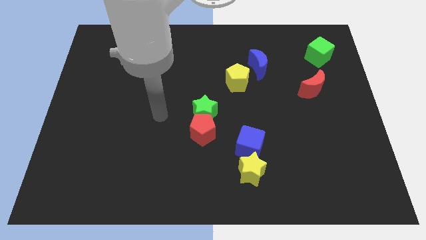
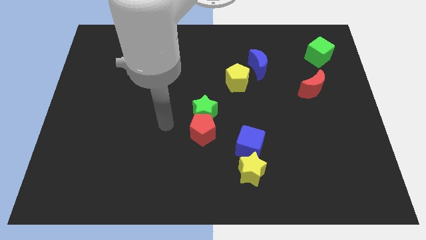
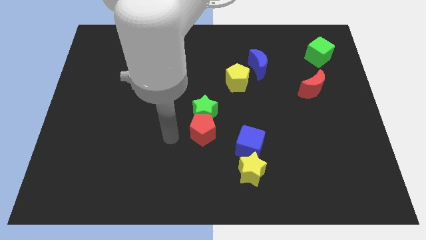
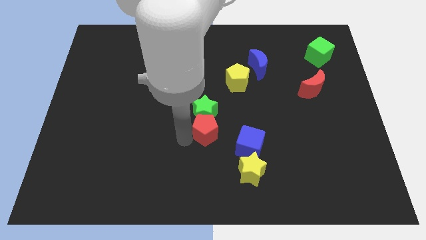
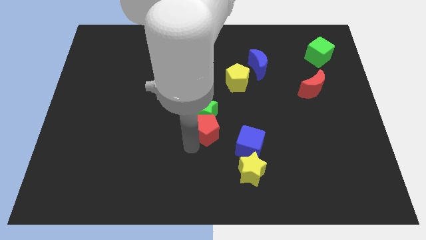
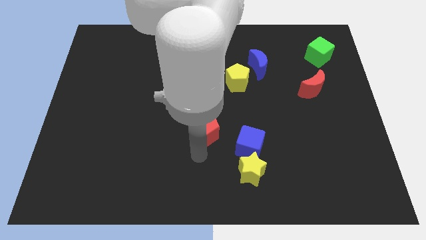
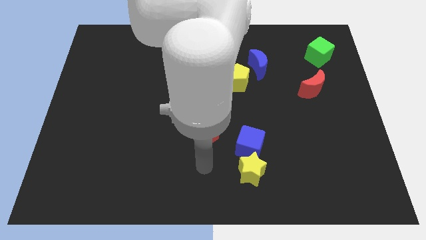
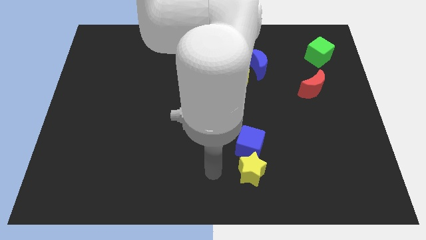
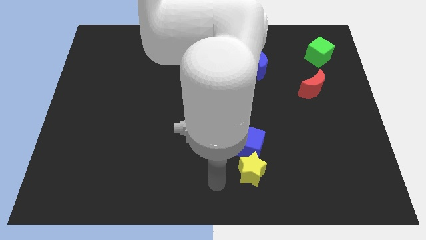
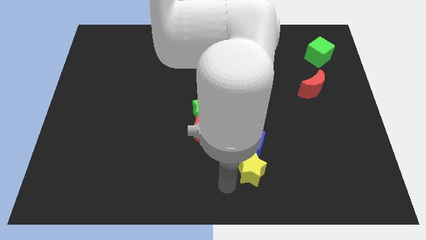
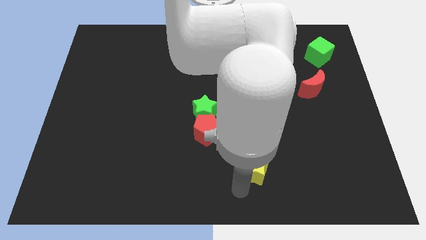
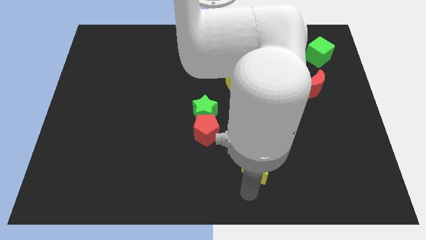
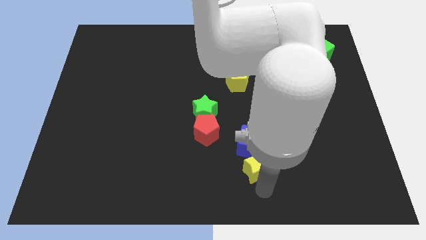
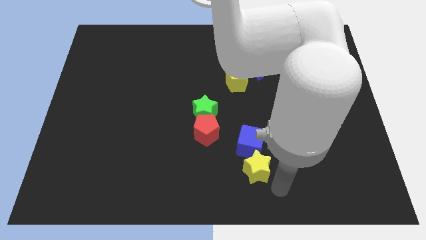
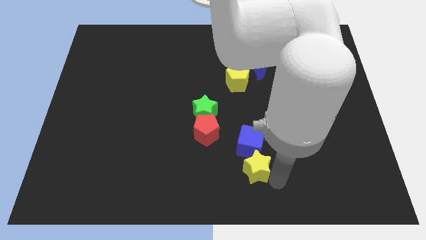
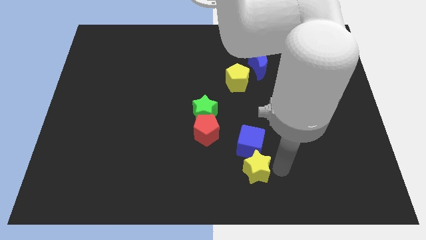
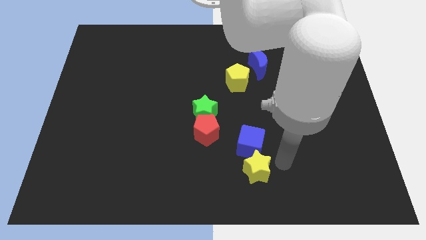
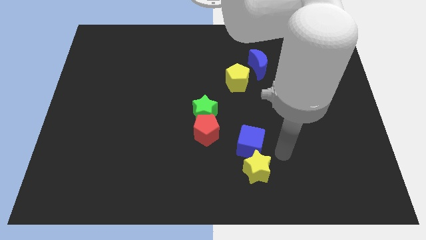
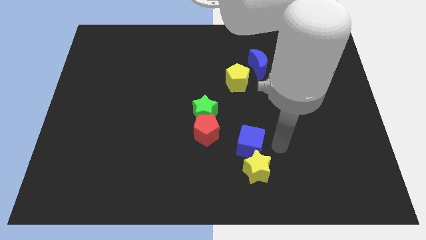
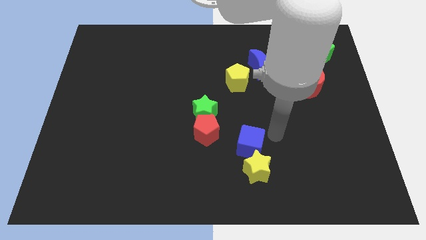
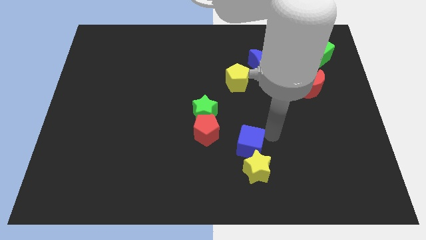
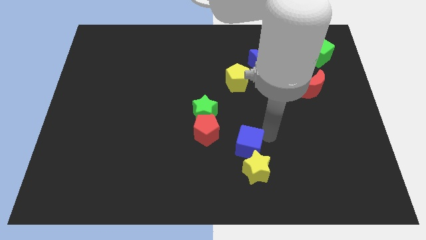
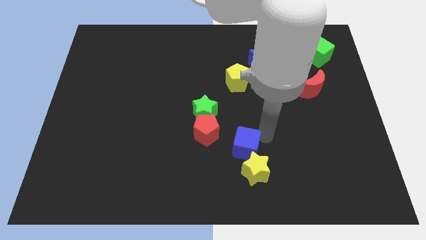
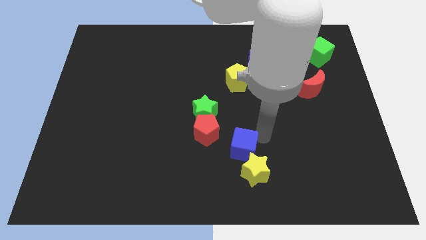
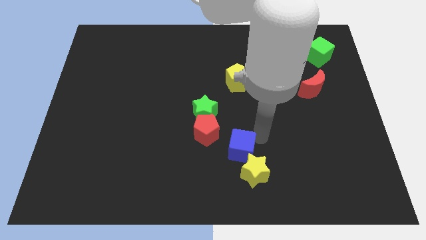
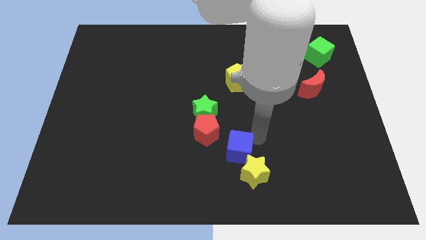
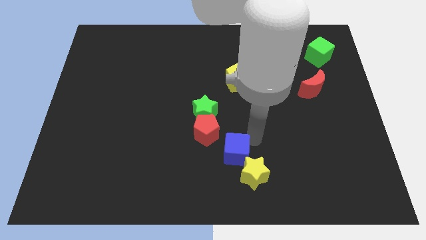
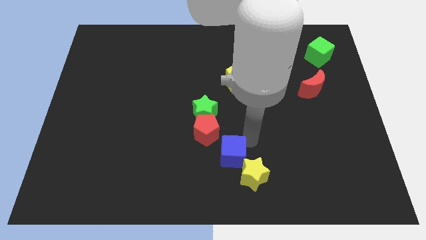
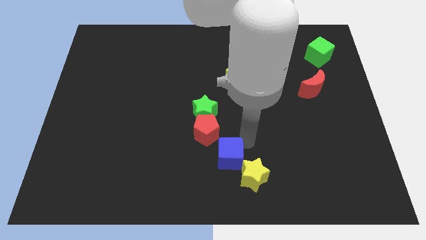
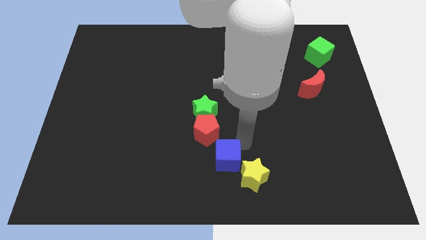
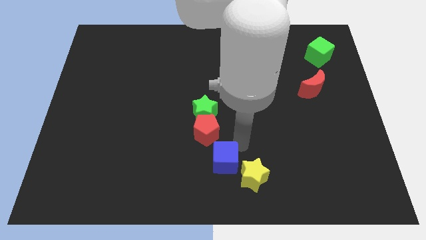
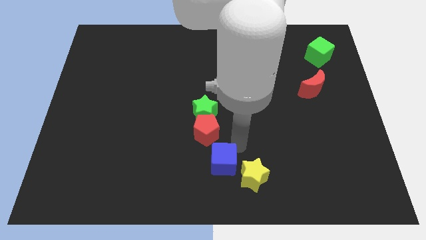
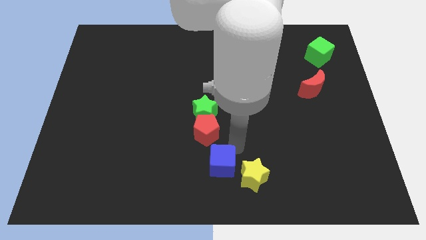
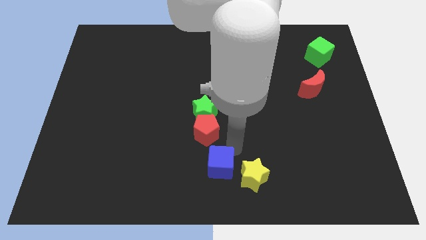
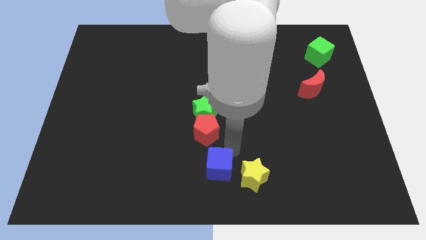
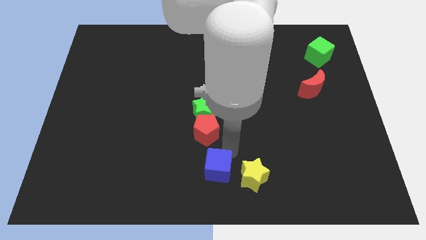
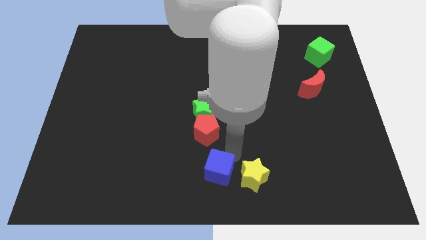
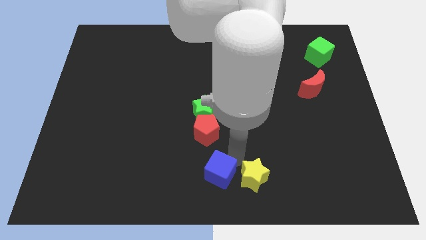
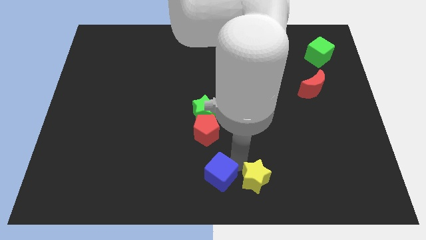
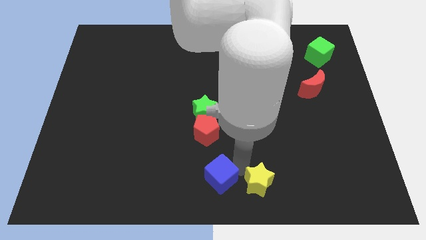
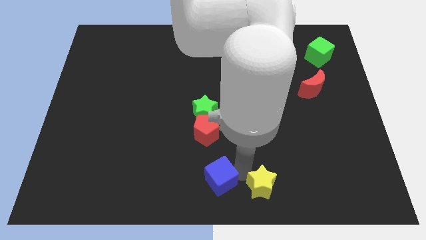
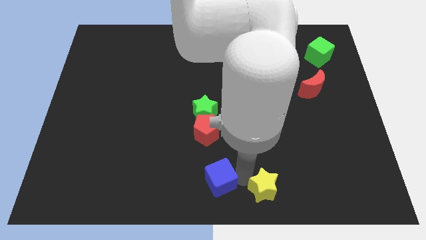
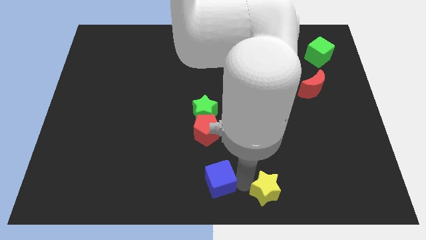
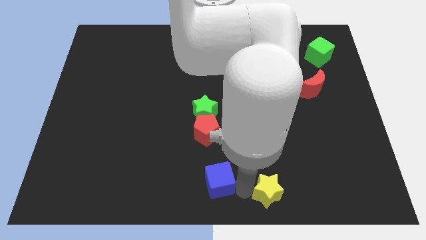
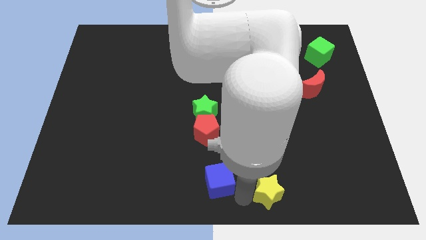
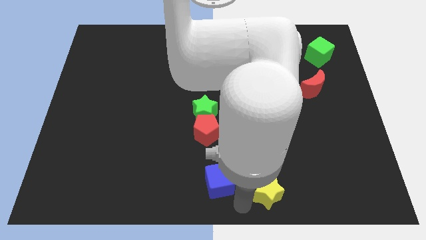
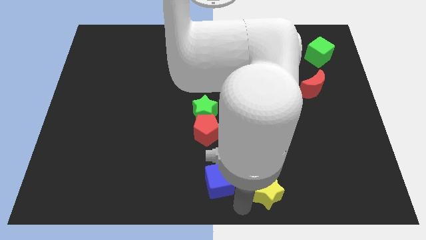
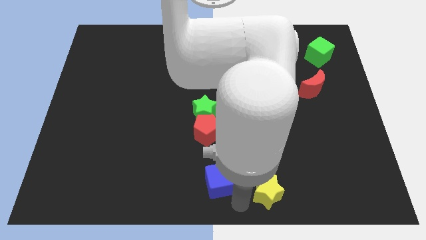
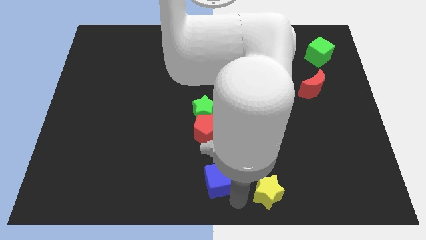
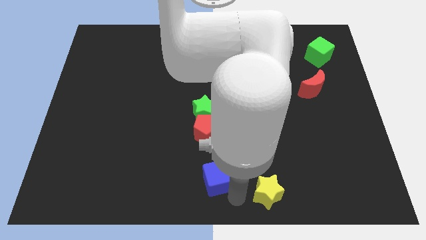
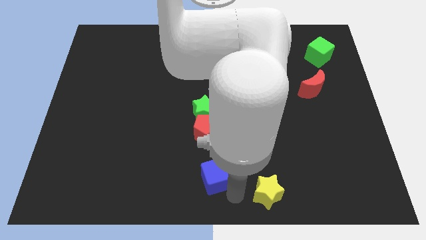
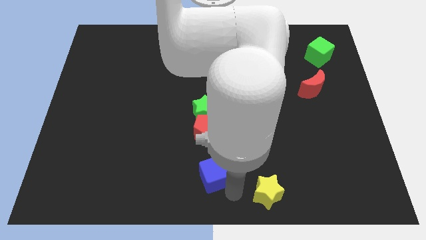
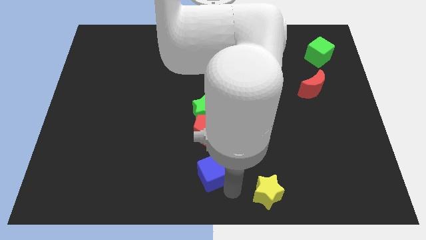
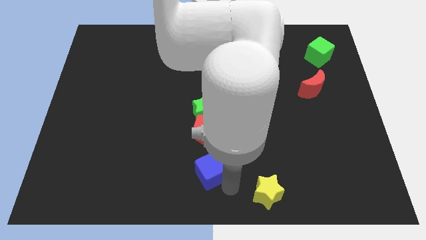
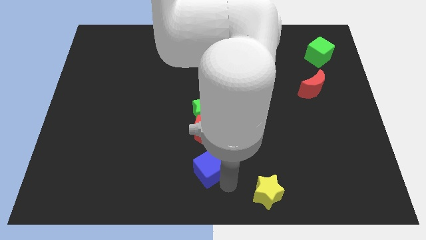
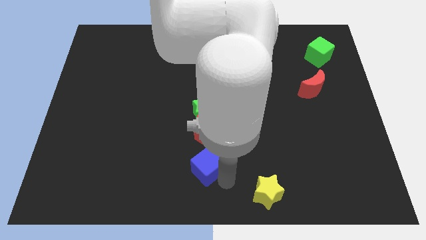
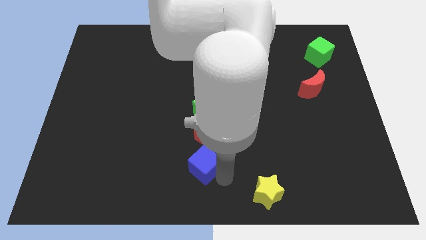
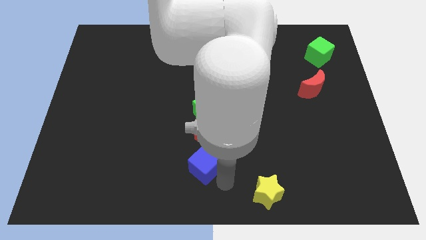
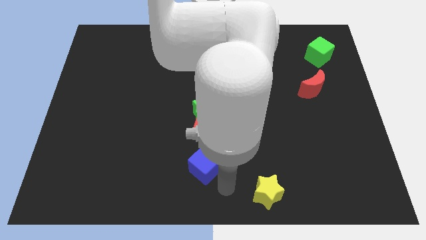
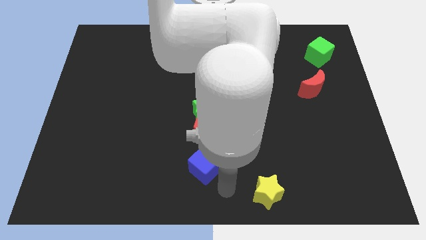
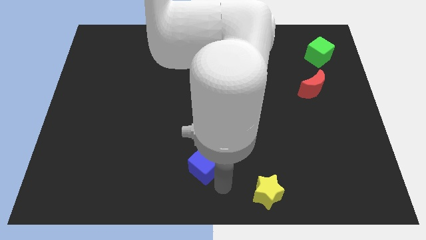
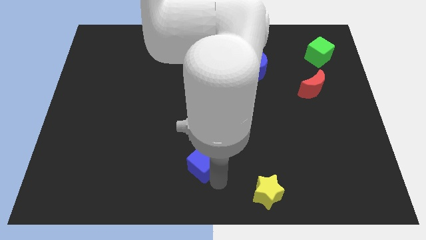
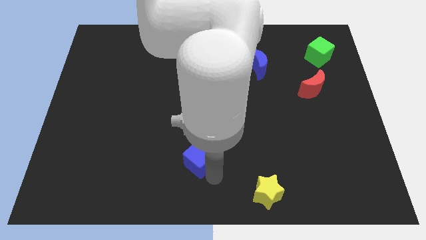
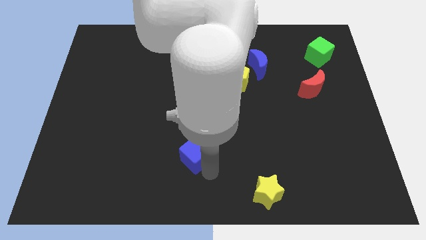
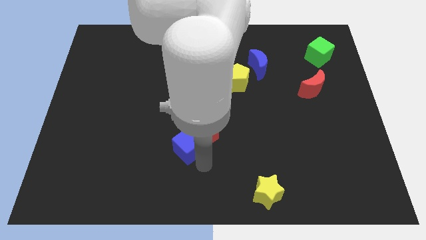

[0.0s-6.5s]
push the blue cube left of the red pentagon
